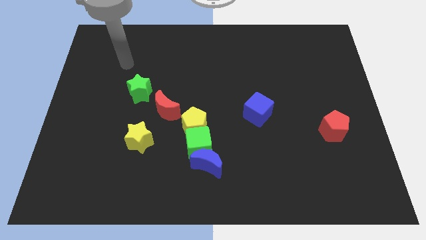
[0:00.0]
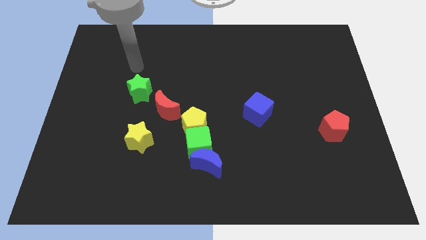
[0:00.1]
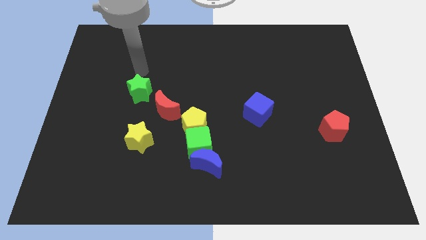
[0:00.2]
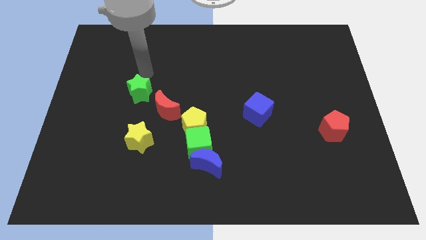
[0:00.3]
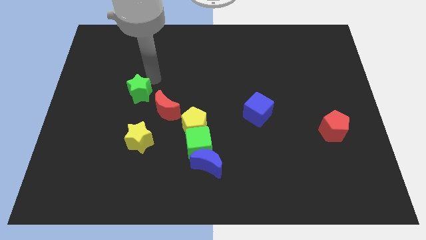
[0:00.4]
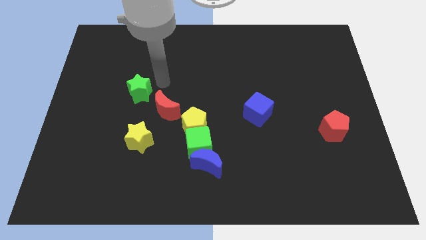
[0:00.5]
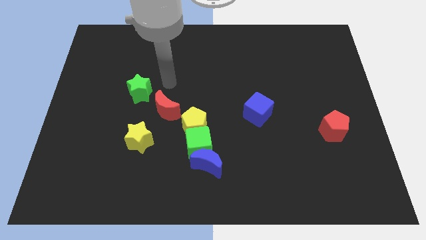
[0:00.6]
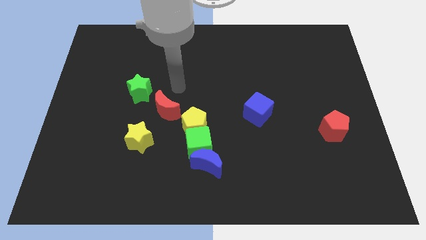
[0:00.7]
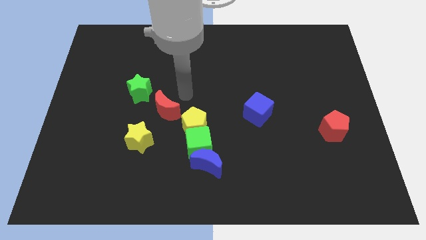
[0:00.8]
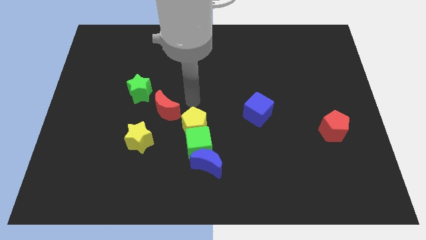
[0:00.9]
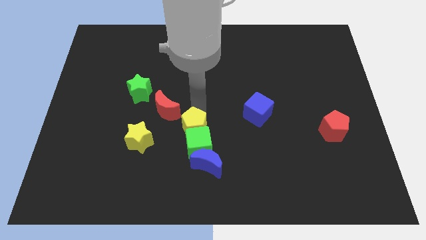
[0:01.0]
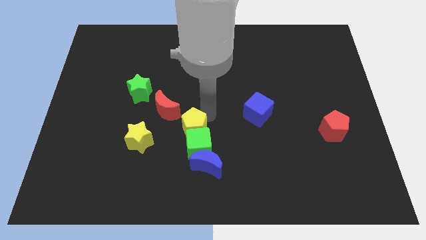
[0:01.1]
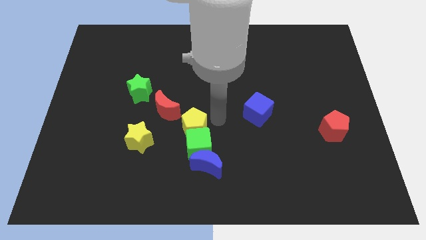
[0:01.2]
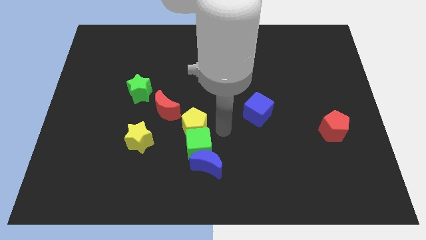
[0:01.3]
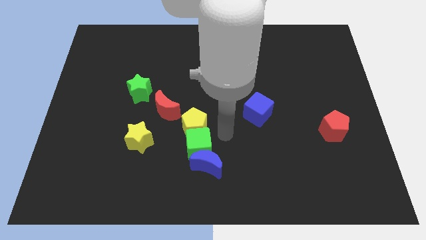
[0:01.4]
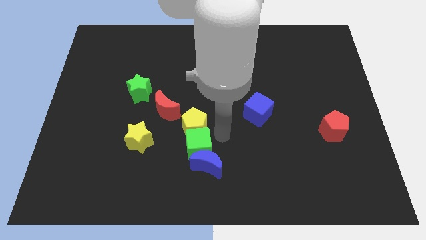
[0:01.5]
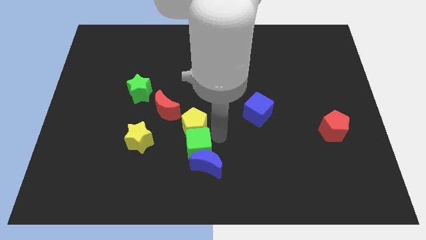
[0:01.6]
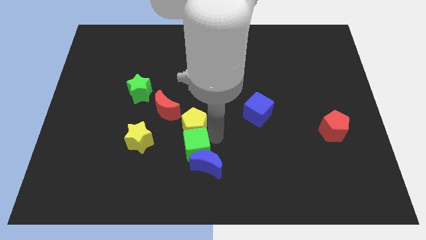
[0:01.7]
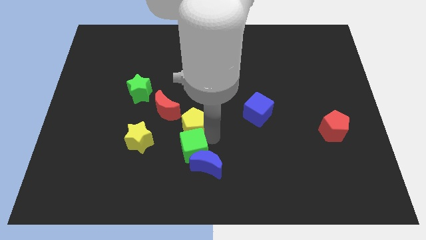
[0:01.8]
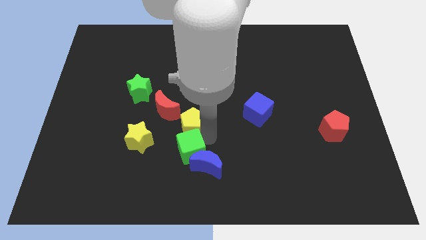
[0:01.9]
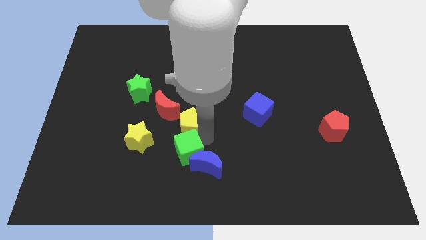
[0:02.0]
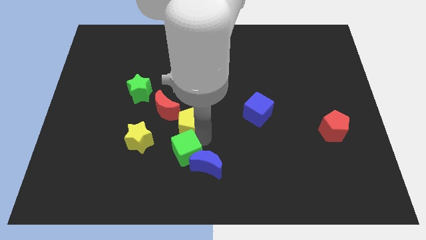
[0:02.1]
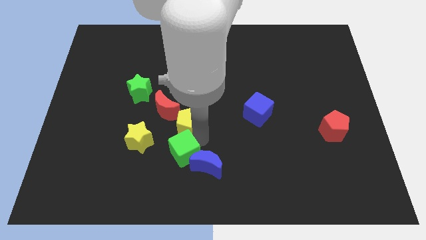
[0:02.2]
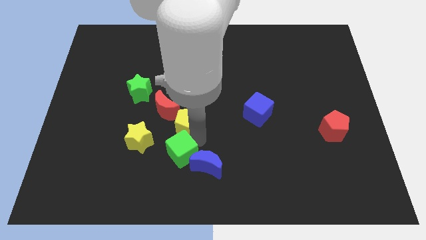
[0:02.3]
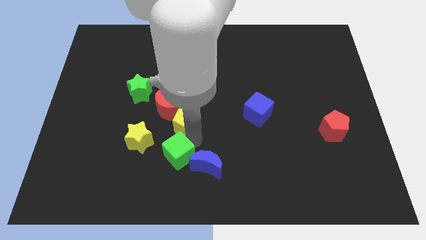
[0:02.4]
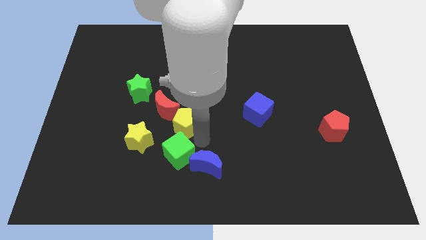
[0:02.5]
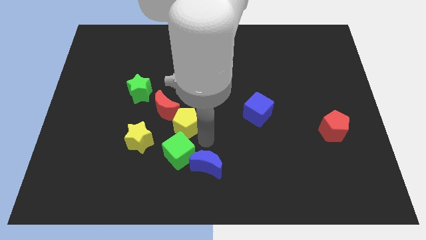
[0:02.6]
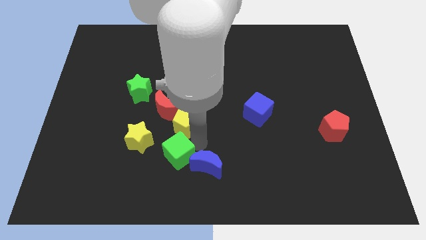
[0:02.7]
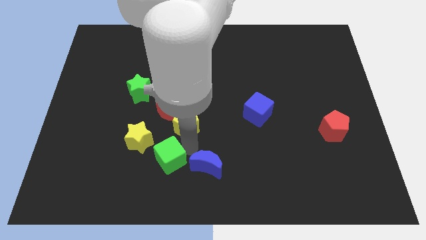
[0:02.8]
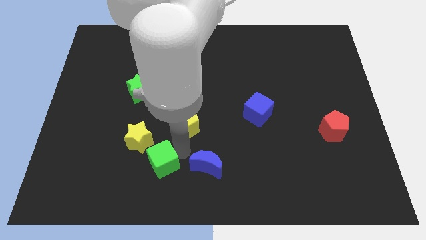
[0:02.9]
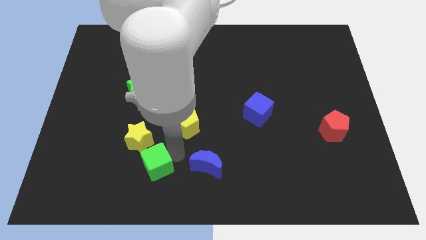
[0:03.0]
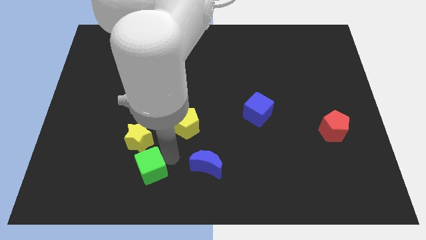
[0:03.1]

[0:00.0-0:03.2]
move the green cube away from the blue moon and yellow pentagon

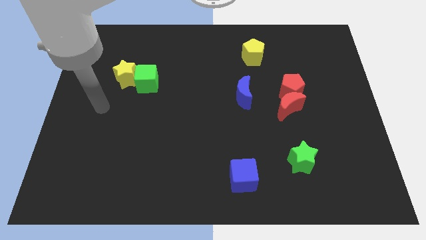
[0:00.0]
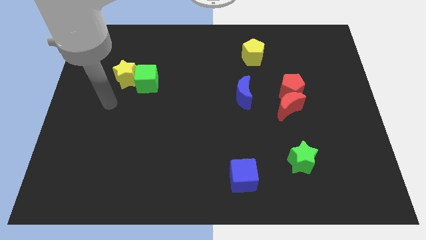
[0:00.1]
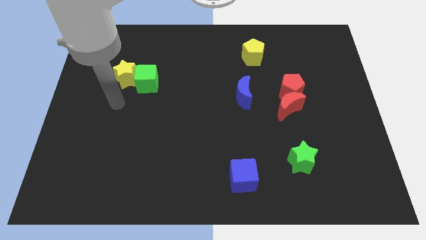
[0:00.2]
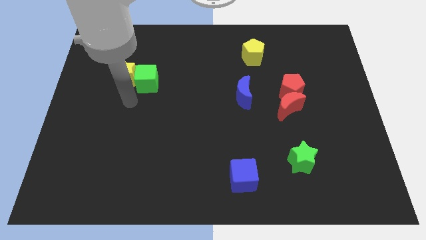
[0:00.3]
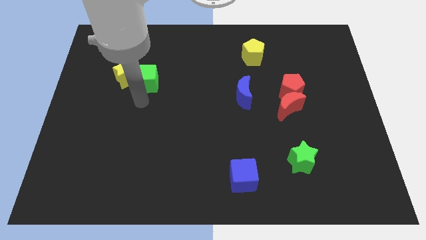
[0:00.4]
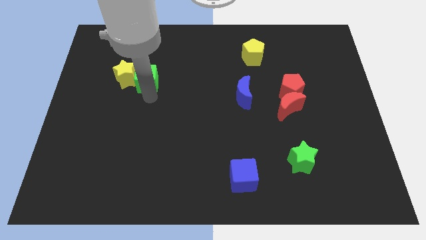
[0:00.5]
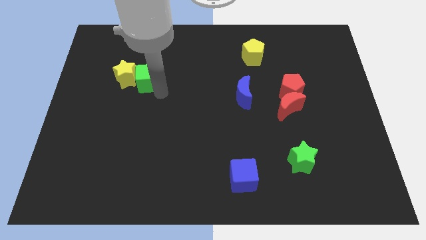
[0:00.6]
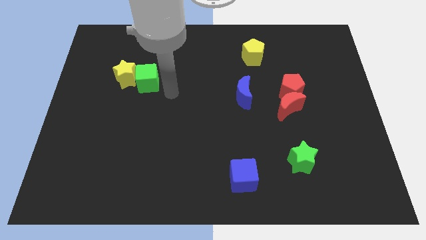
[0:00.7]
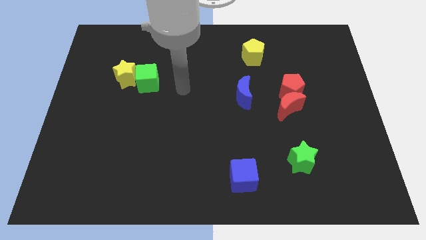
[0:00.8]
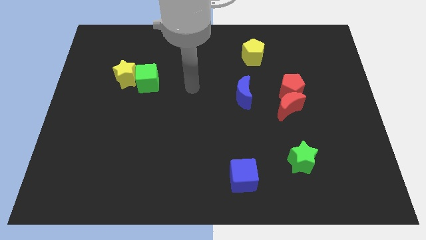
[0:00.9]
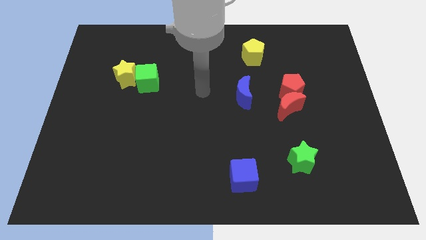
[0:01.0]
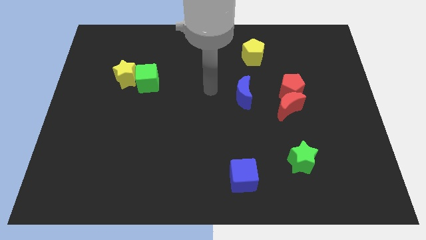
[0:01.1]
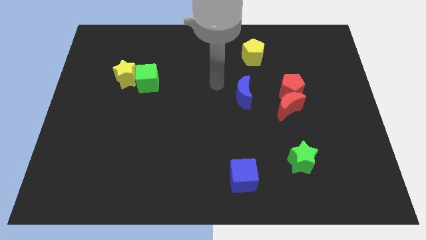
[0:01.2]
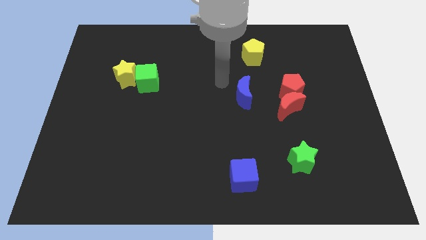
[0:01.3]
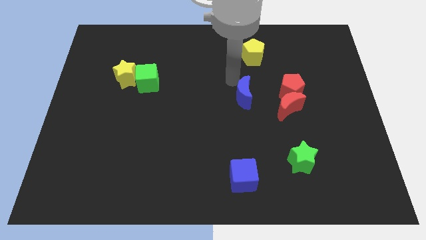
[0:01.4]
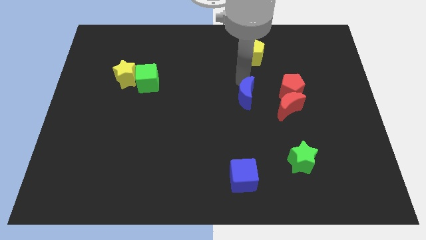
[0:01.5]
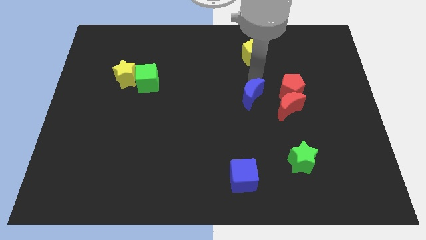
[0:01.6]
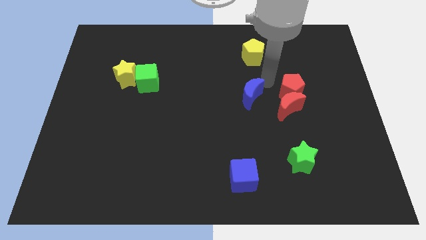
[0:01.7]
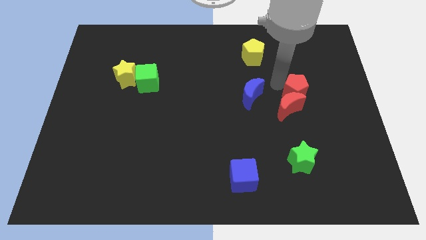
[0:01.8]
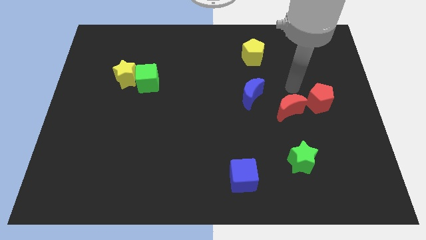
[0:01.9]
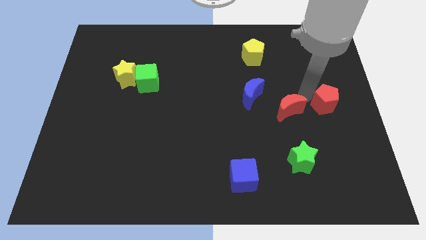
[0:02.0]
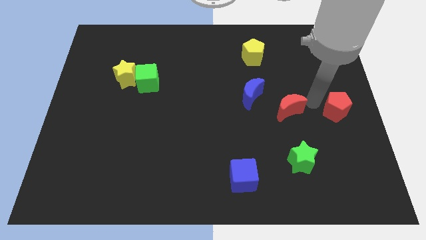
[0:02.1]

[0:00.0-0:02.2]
pull the red moon apart from the red pentagon

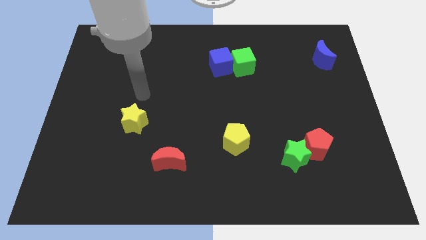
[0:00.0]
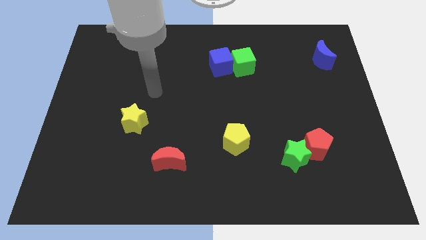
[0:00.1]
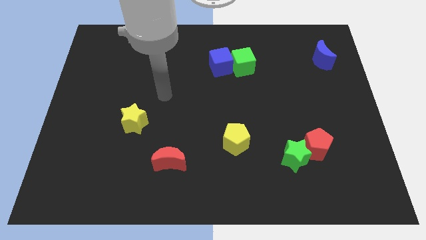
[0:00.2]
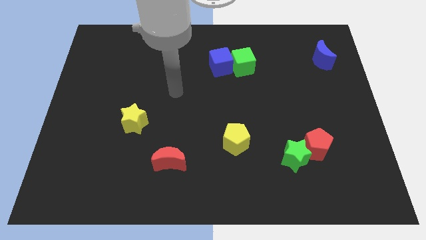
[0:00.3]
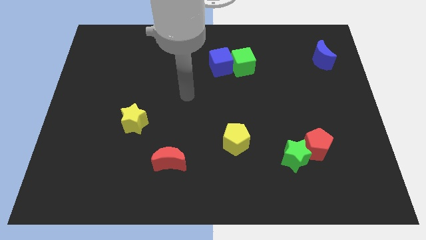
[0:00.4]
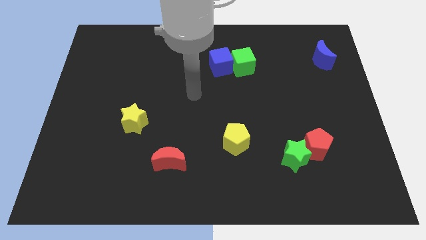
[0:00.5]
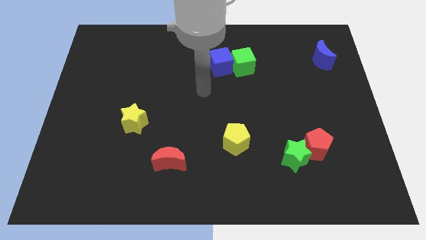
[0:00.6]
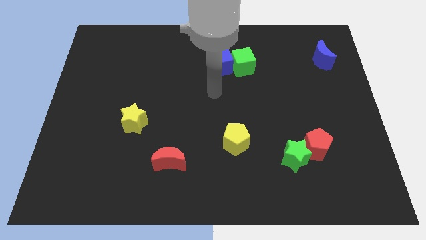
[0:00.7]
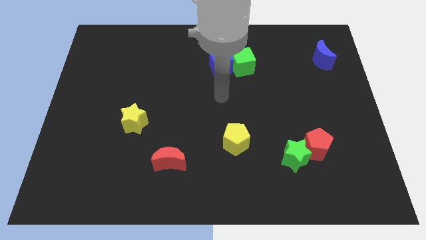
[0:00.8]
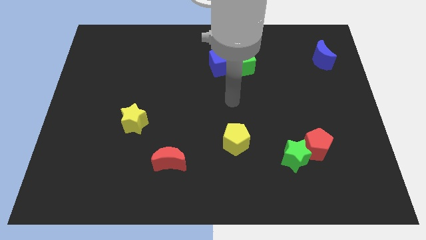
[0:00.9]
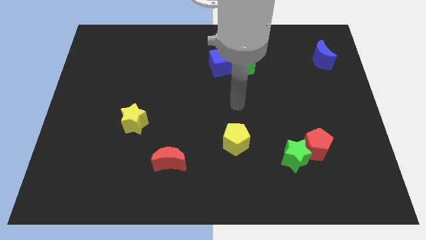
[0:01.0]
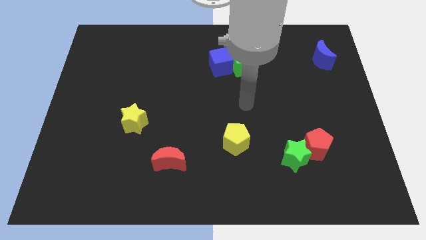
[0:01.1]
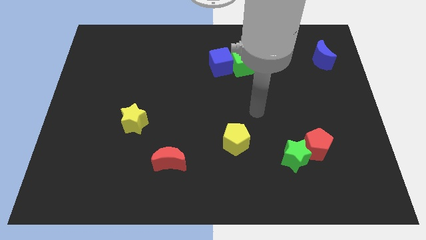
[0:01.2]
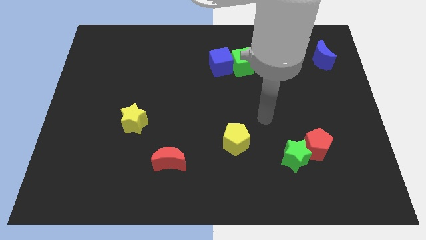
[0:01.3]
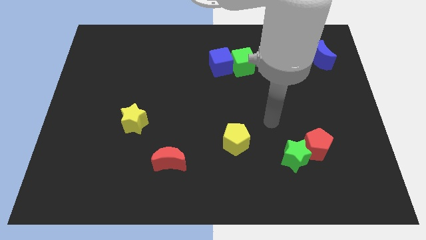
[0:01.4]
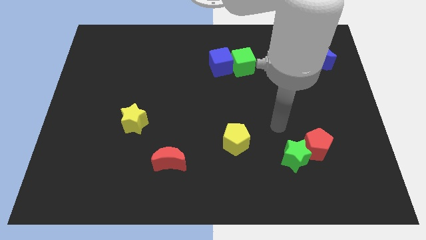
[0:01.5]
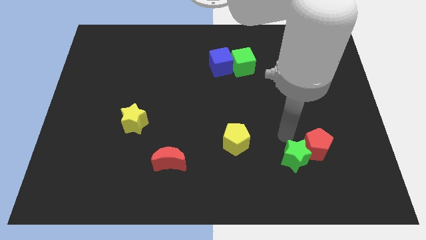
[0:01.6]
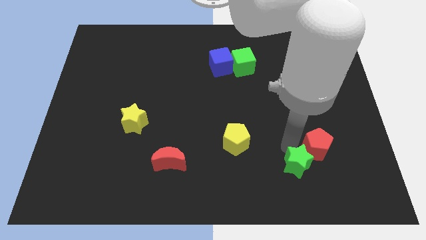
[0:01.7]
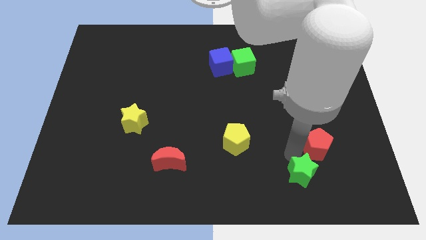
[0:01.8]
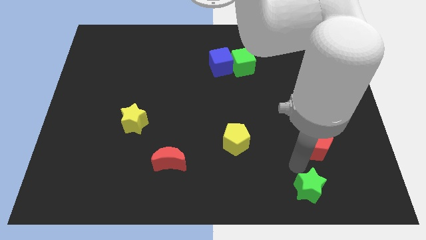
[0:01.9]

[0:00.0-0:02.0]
separate the red pentagon from the green star

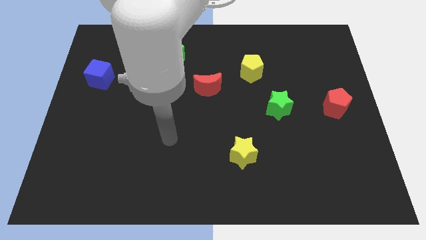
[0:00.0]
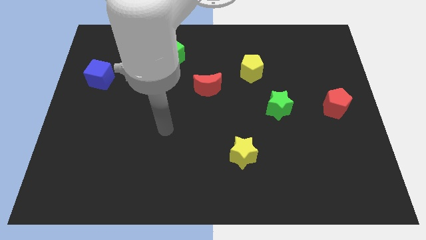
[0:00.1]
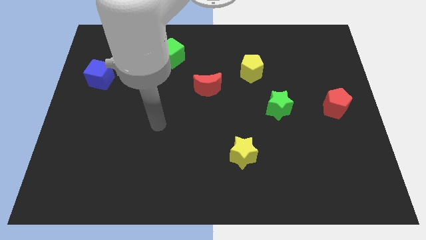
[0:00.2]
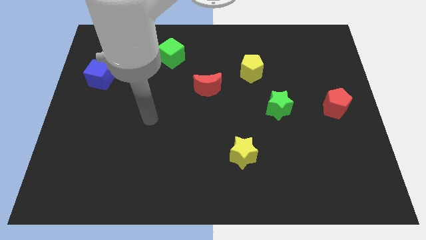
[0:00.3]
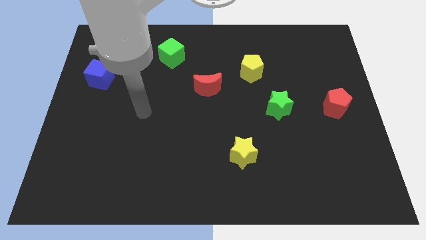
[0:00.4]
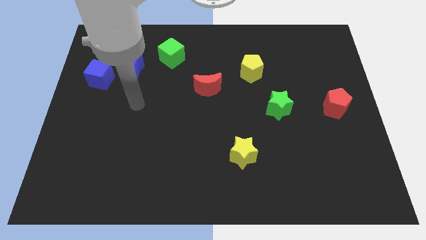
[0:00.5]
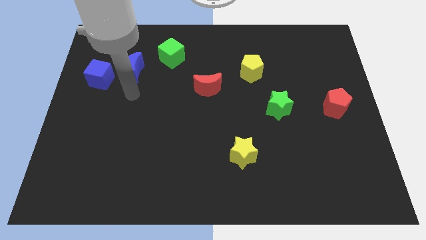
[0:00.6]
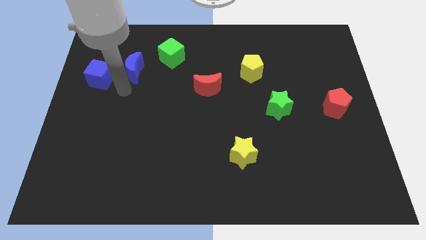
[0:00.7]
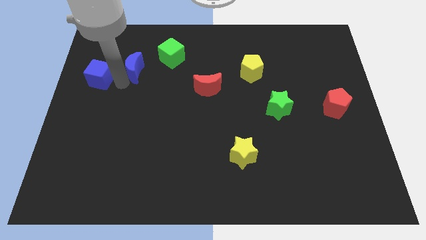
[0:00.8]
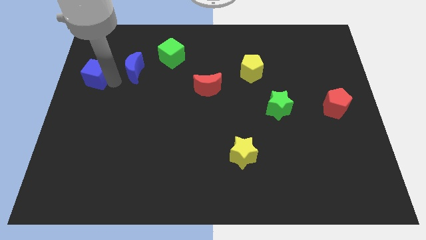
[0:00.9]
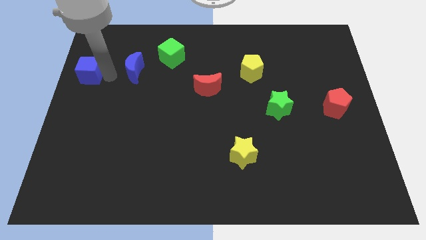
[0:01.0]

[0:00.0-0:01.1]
move the blue moon away from the blue cube

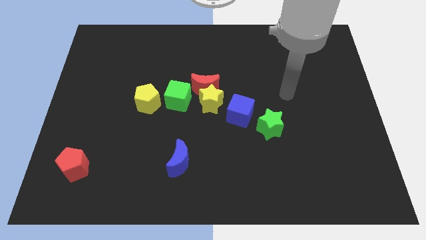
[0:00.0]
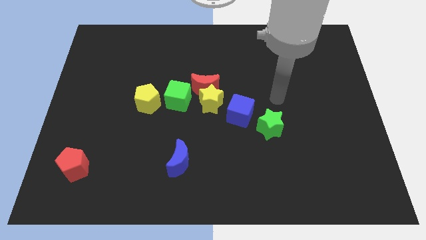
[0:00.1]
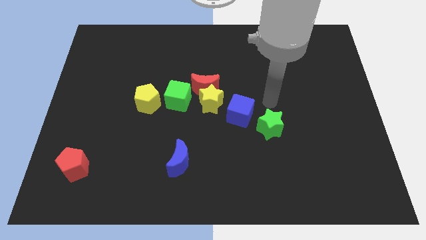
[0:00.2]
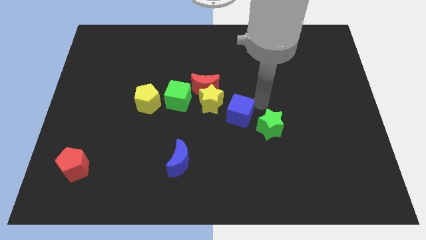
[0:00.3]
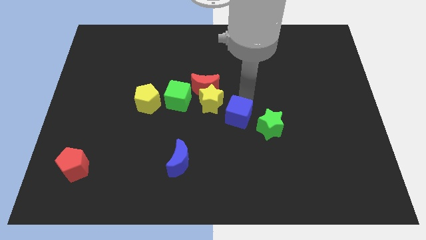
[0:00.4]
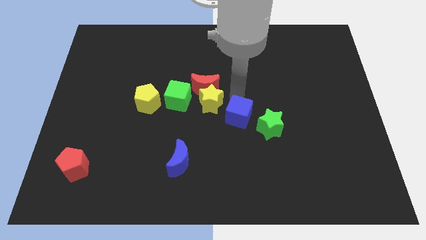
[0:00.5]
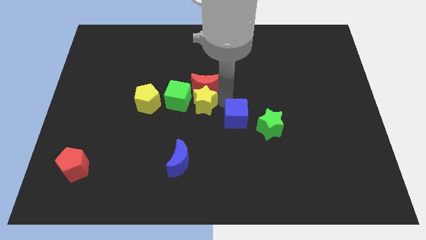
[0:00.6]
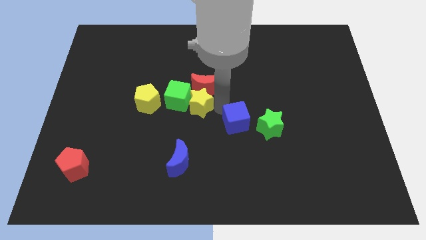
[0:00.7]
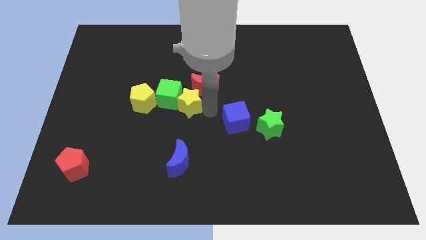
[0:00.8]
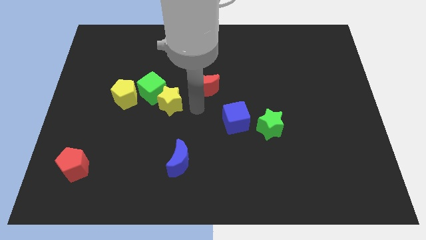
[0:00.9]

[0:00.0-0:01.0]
separate the red moon from the yellow star and green cube
